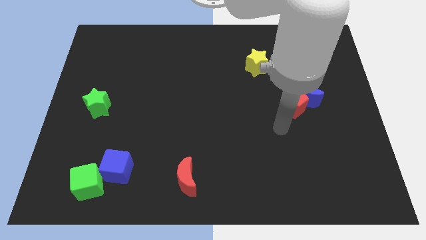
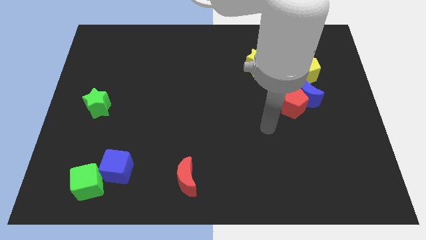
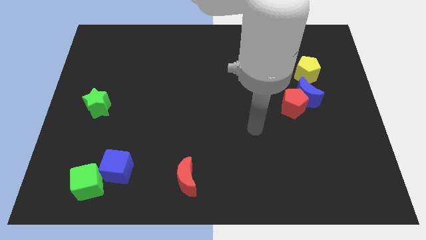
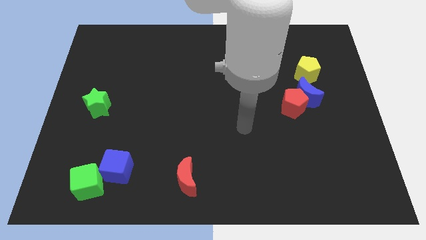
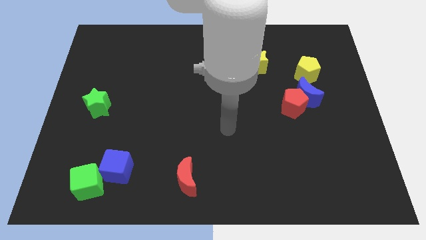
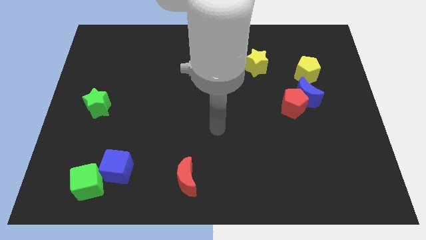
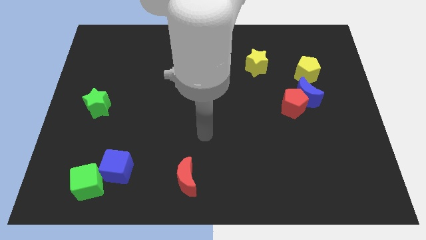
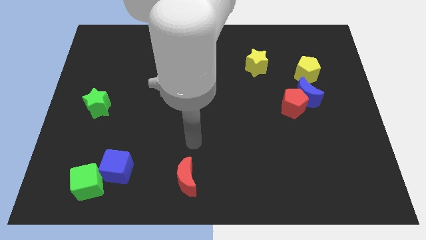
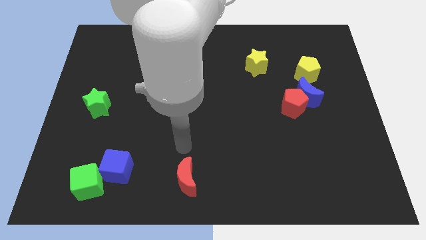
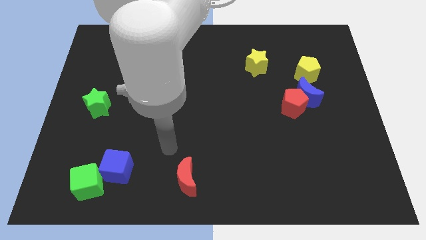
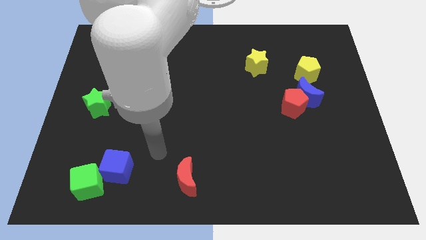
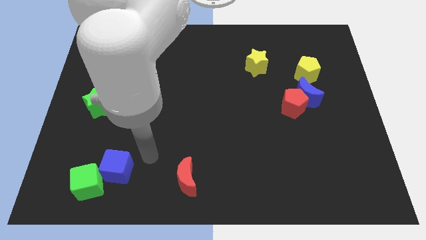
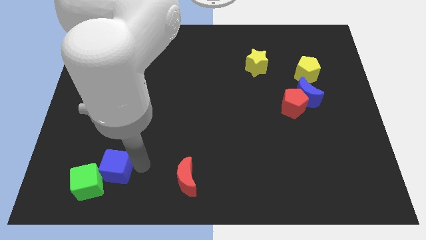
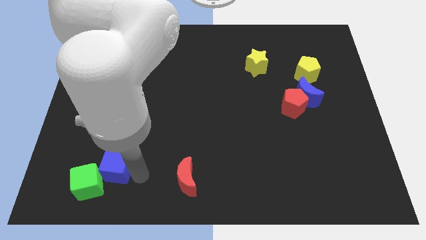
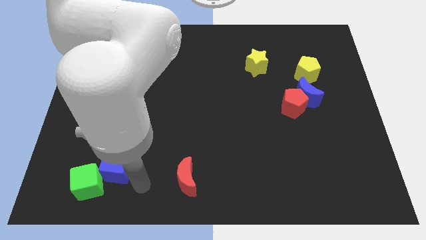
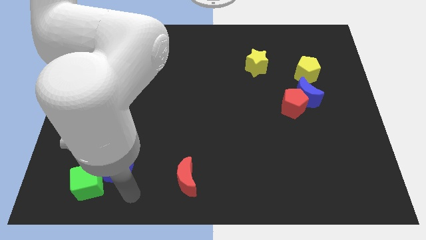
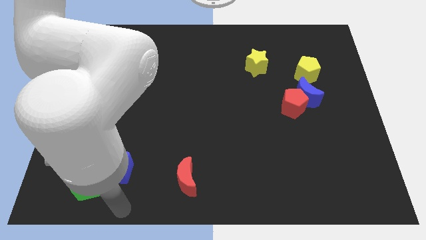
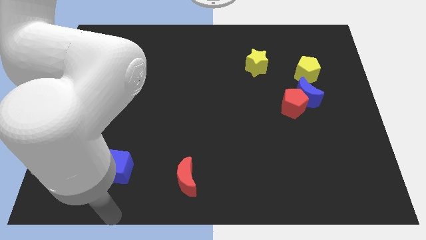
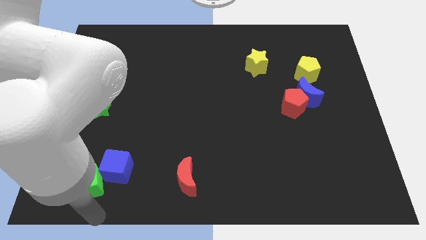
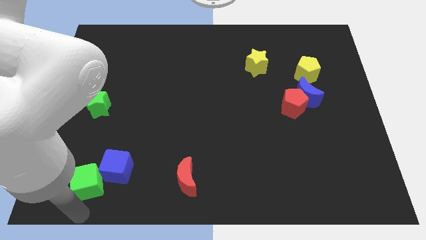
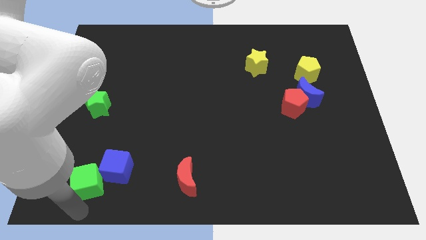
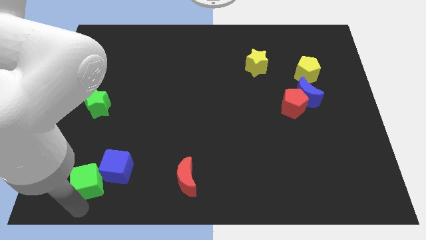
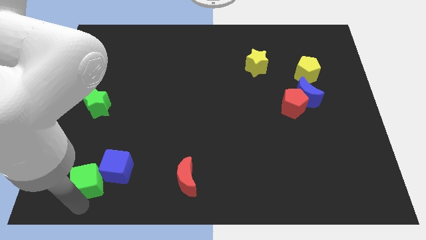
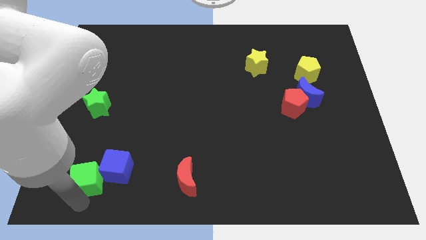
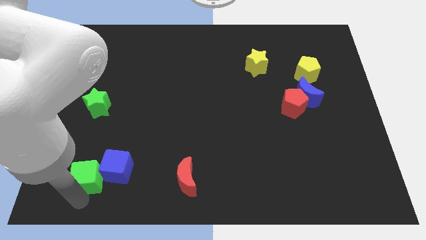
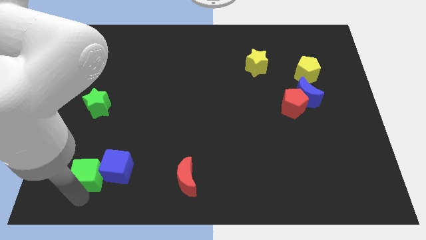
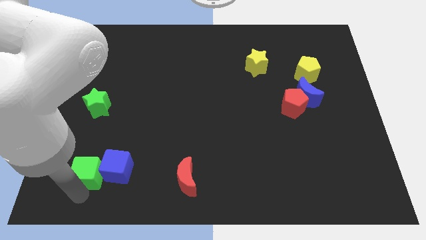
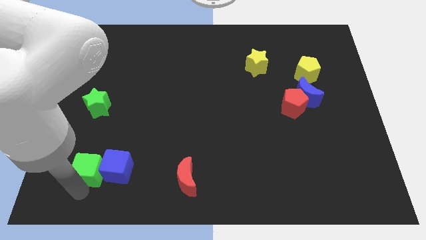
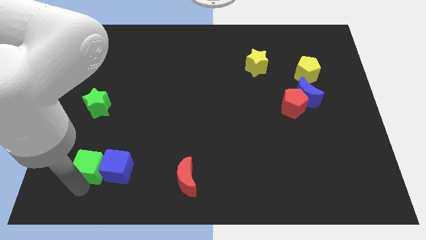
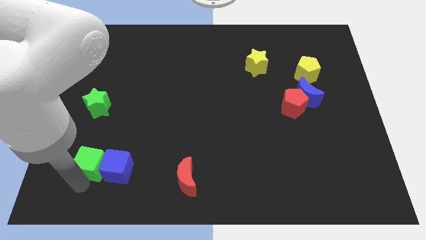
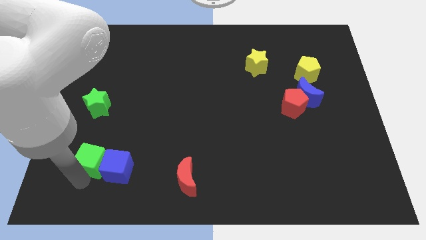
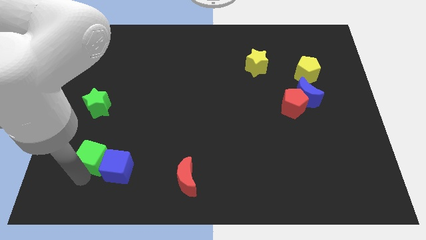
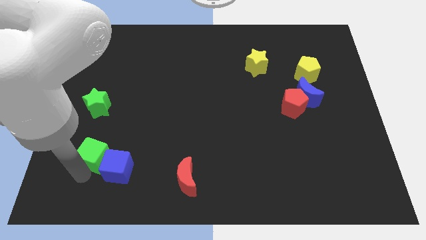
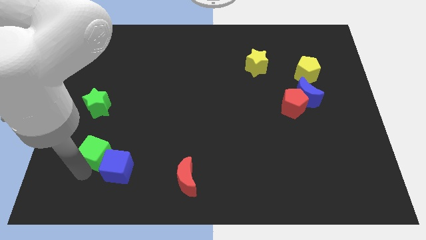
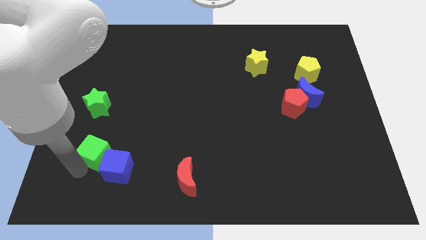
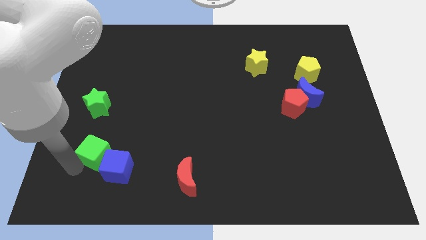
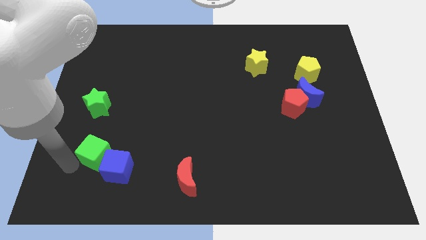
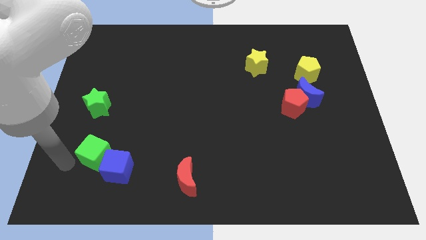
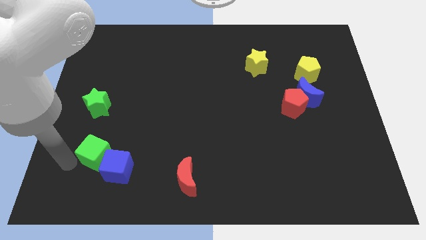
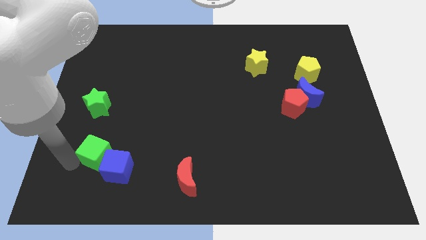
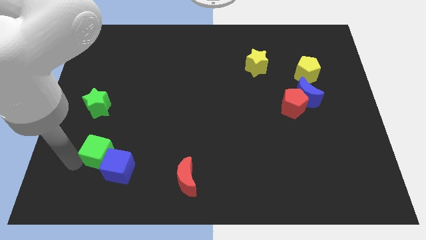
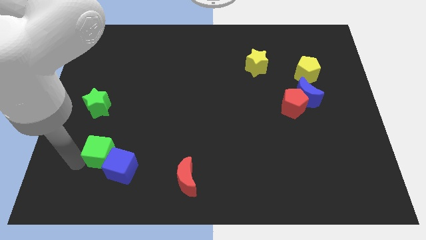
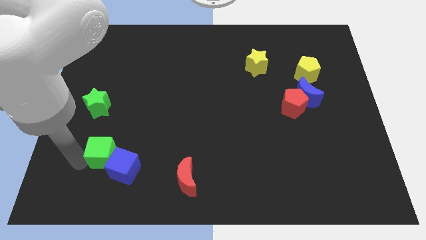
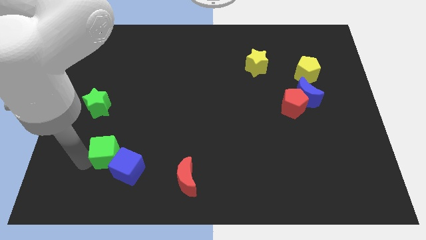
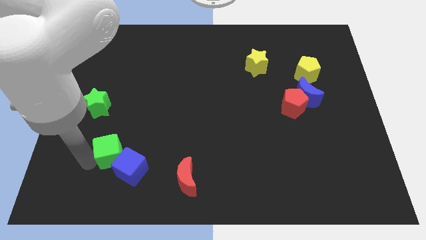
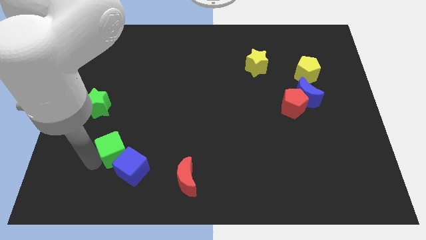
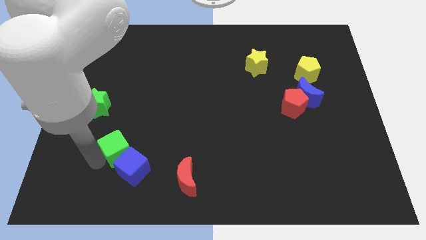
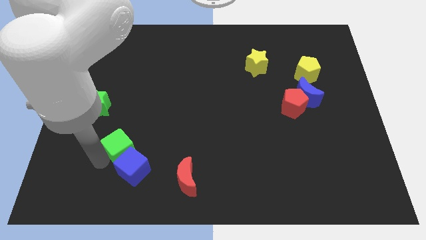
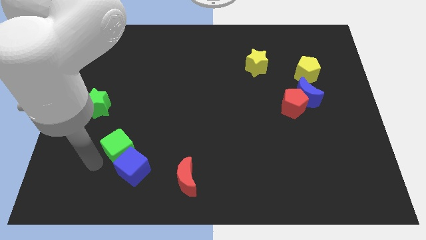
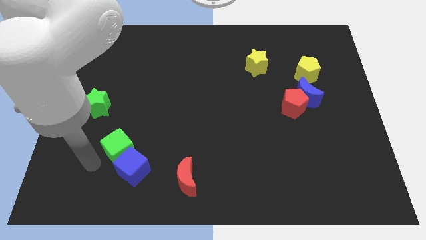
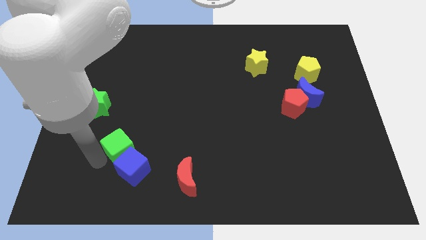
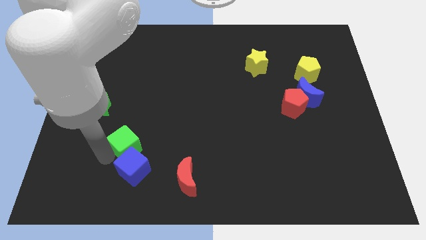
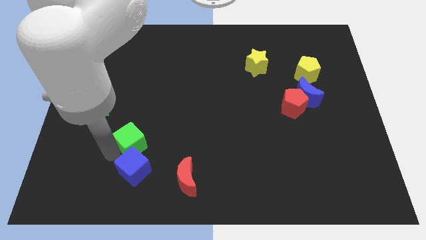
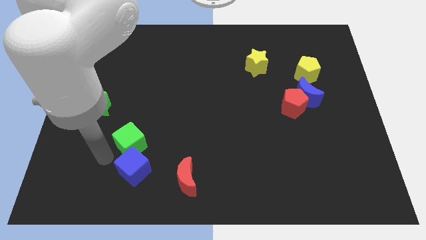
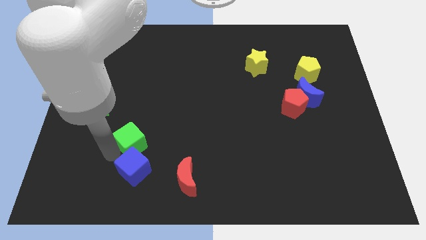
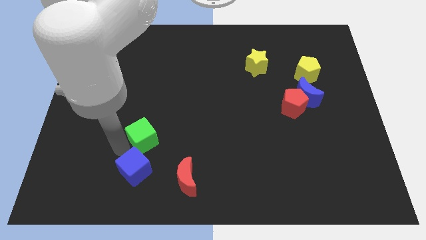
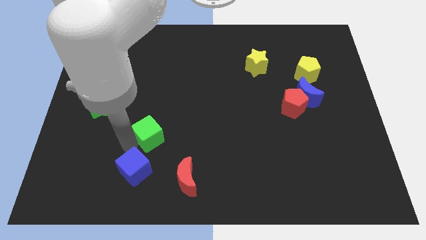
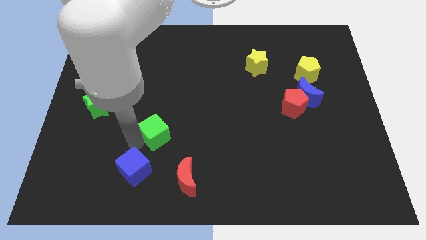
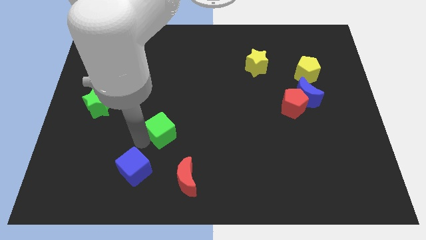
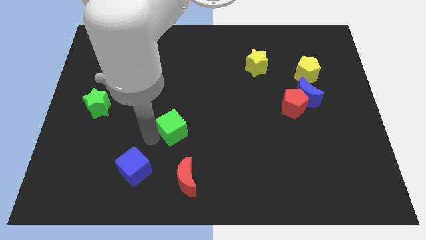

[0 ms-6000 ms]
put the green cube to the middle

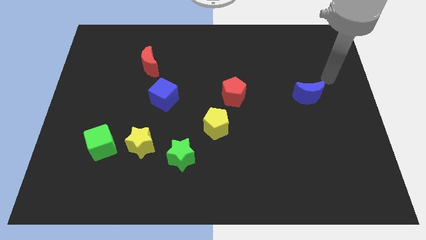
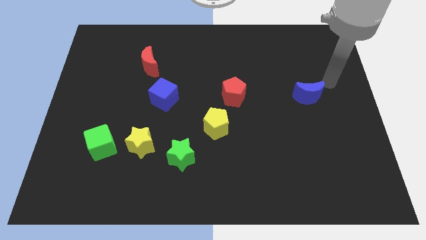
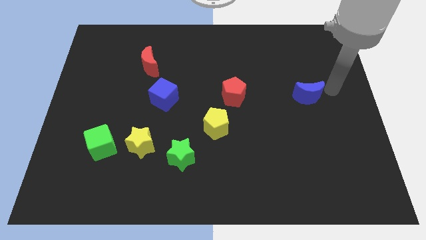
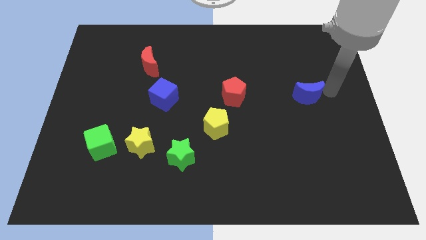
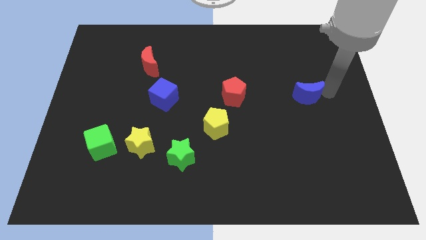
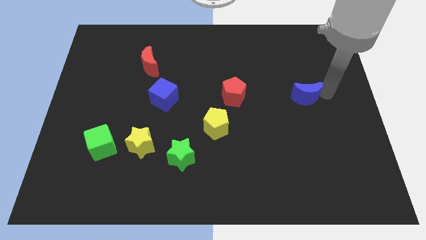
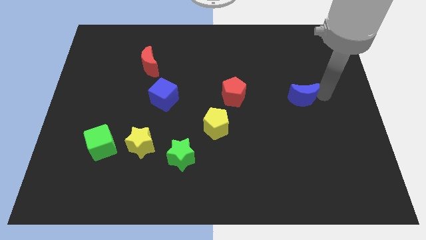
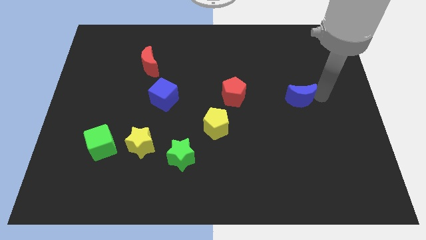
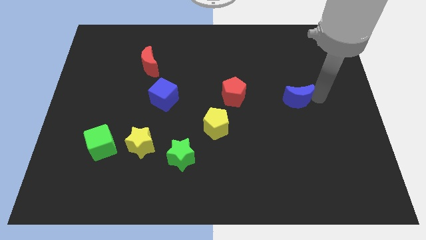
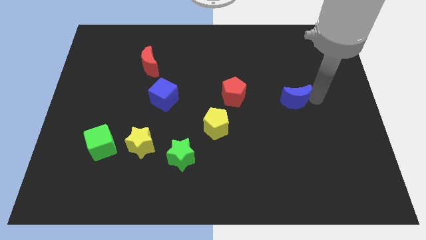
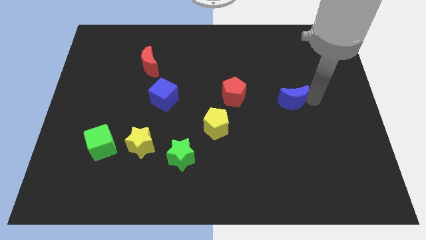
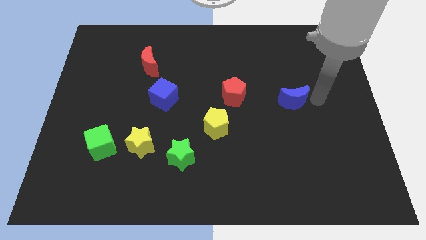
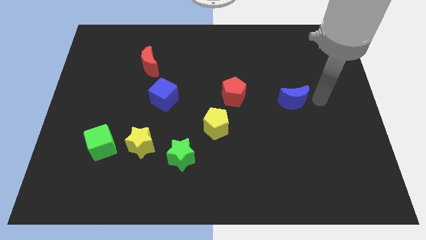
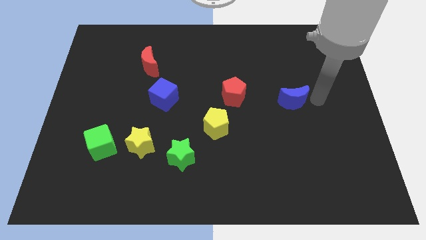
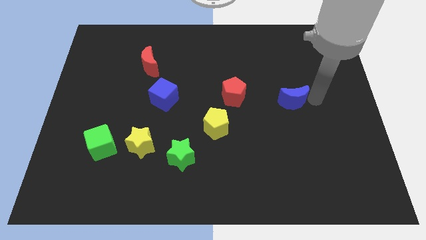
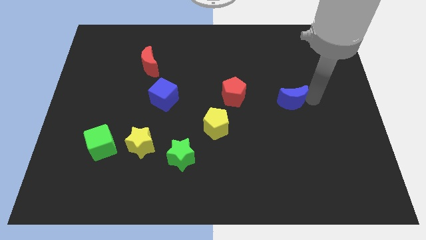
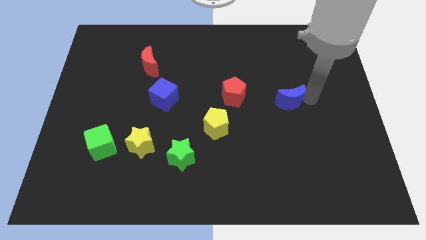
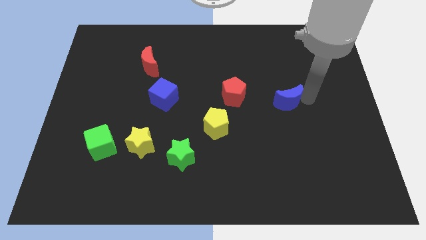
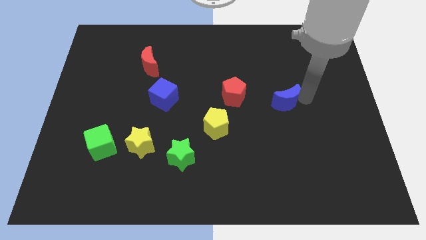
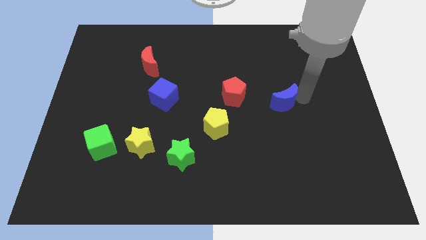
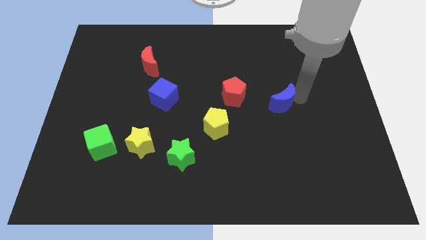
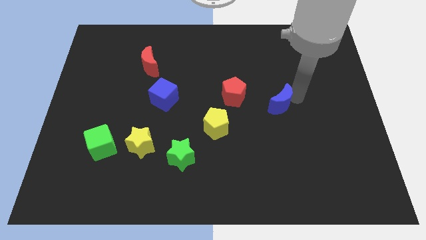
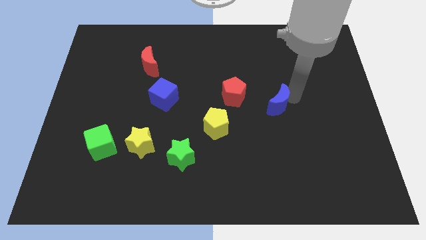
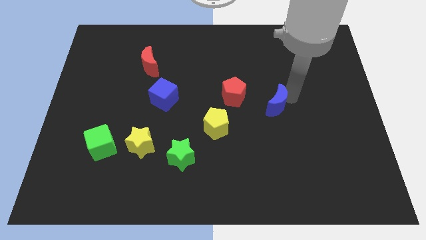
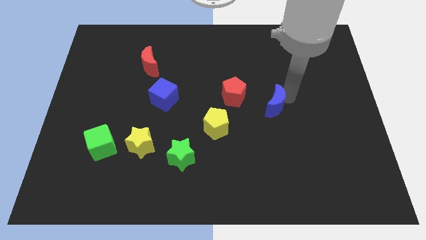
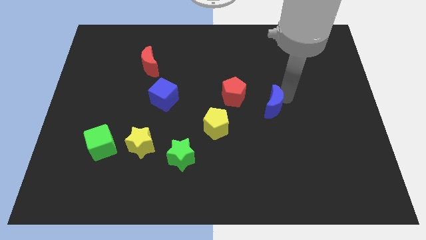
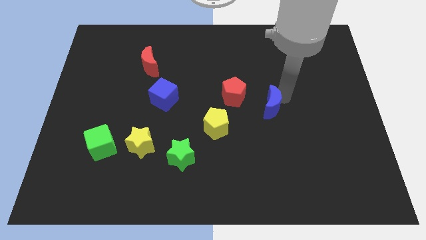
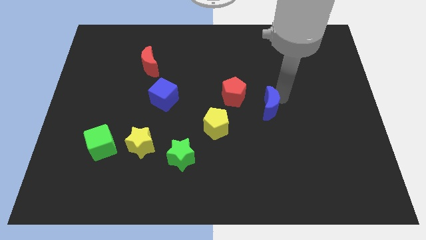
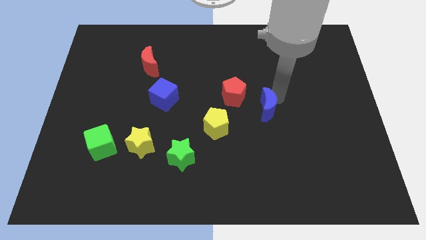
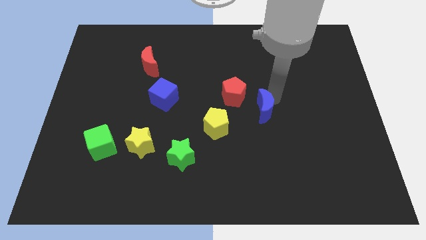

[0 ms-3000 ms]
put the blue moon to the middle
